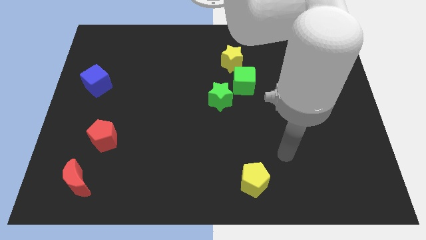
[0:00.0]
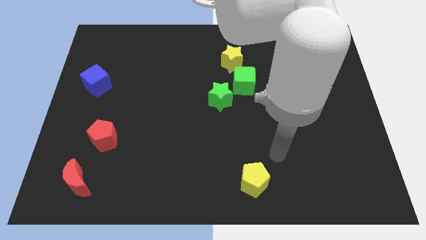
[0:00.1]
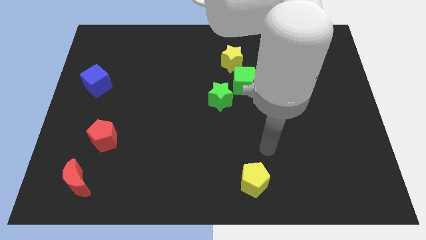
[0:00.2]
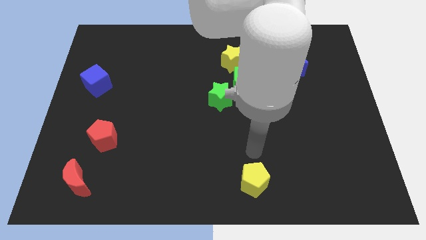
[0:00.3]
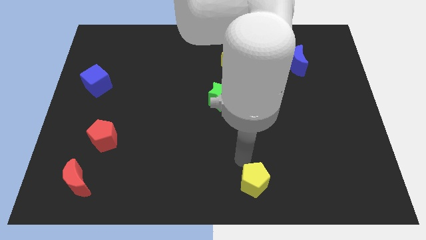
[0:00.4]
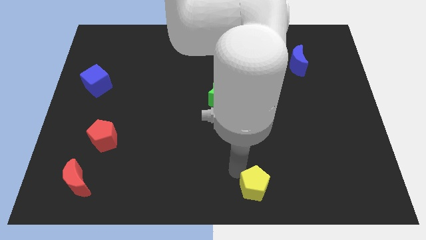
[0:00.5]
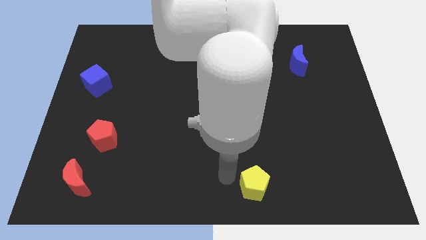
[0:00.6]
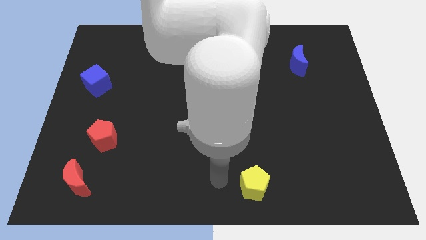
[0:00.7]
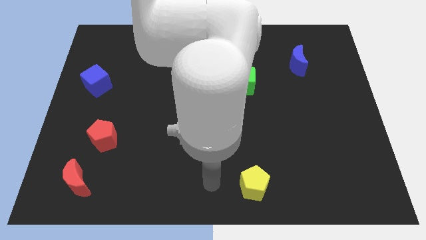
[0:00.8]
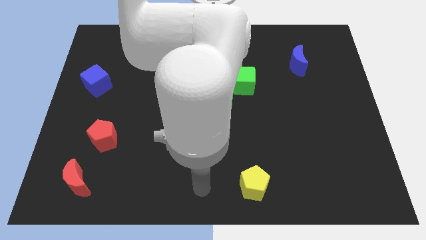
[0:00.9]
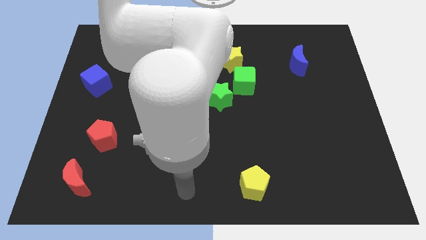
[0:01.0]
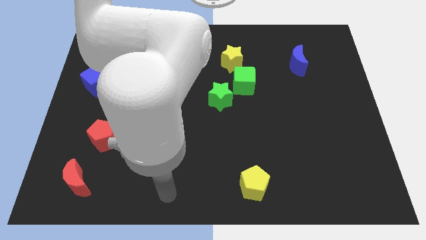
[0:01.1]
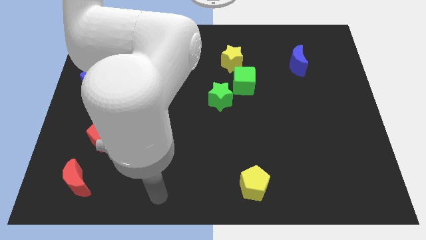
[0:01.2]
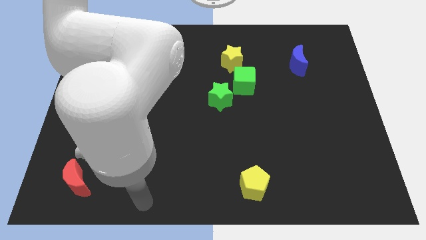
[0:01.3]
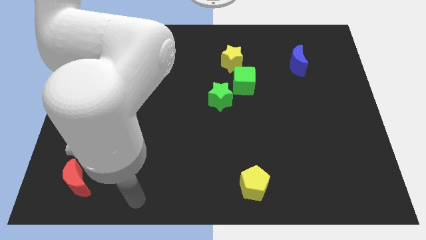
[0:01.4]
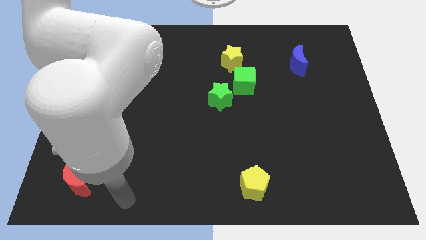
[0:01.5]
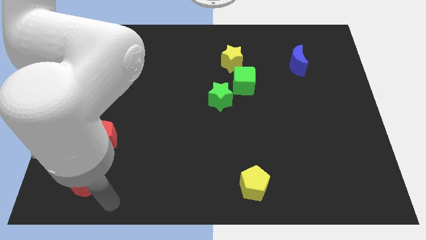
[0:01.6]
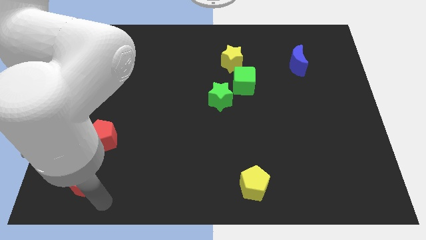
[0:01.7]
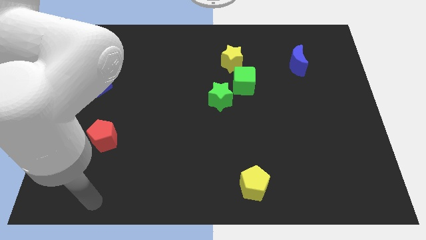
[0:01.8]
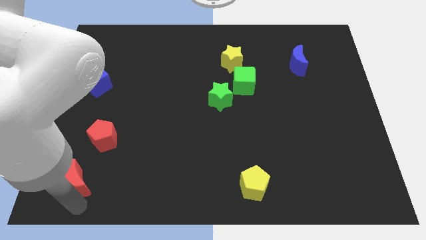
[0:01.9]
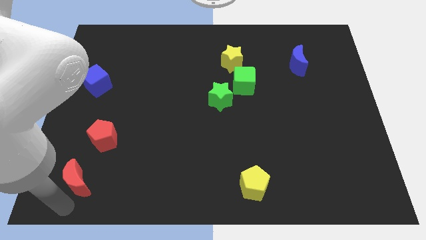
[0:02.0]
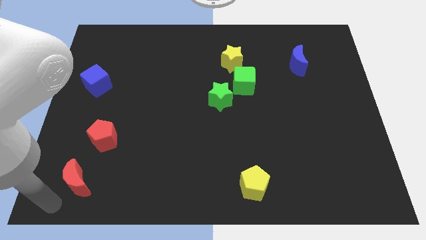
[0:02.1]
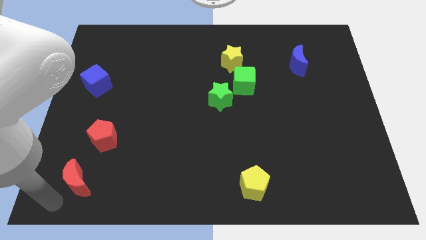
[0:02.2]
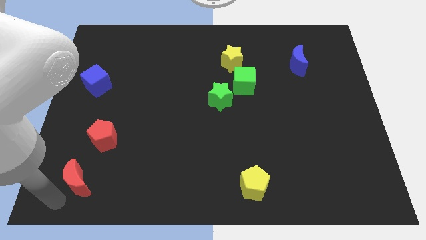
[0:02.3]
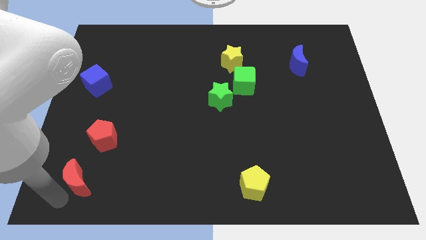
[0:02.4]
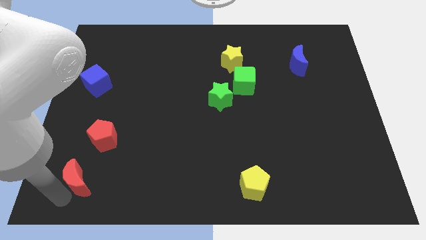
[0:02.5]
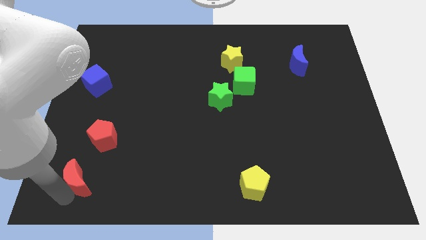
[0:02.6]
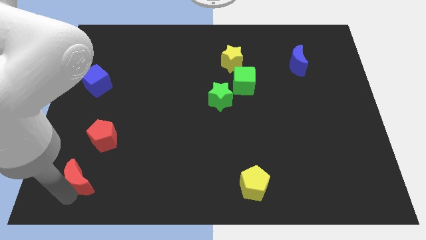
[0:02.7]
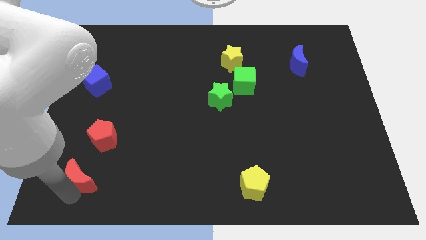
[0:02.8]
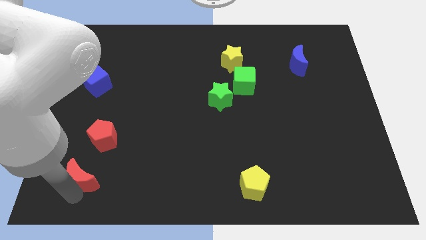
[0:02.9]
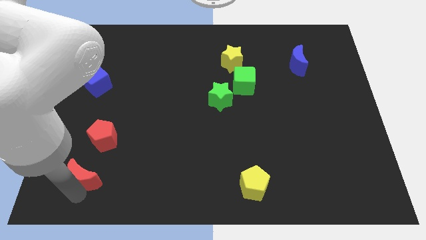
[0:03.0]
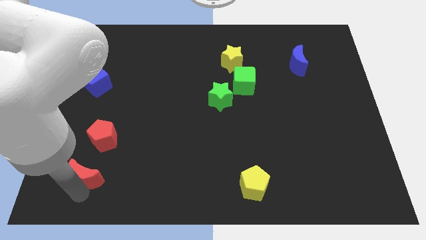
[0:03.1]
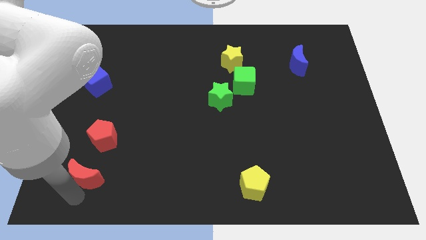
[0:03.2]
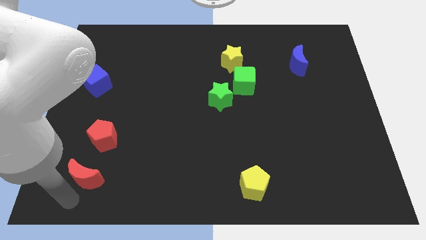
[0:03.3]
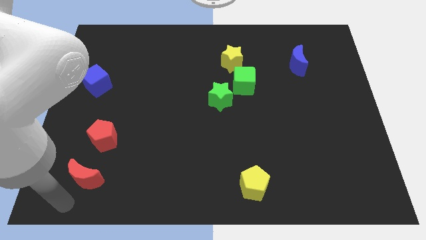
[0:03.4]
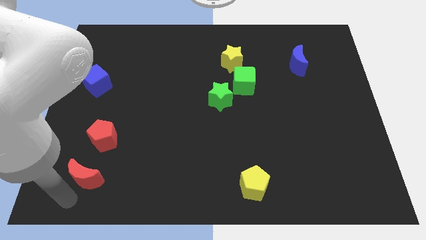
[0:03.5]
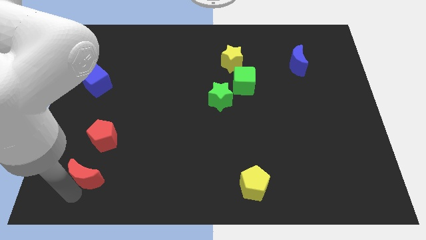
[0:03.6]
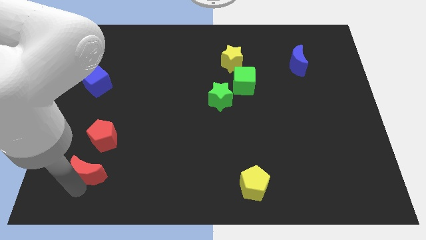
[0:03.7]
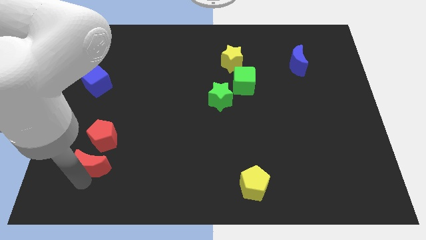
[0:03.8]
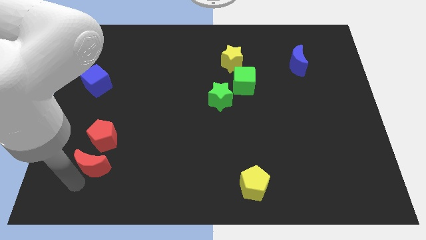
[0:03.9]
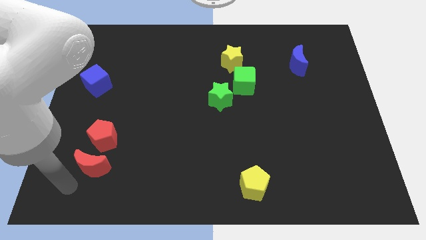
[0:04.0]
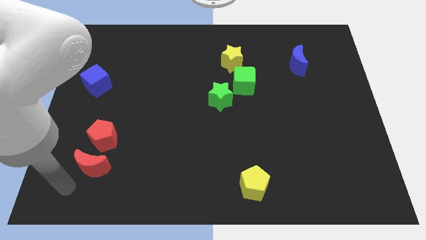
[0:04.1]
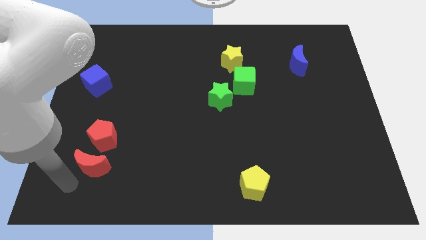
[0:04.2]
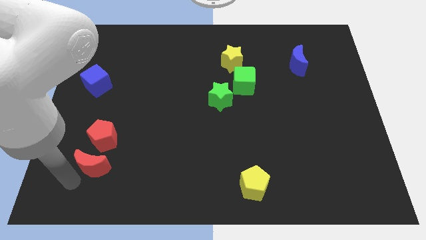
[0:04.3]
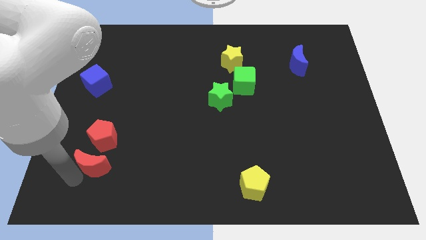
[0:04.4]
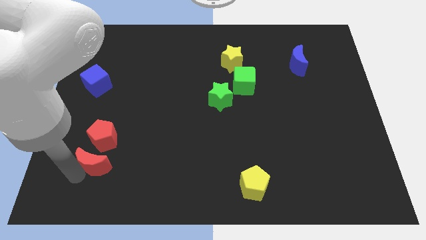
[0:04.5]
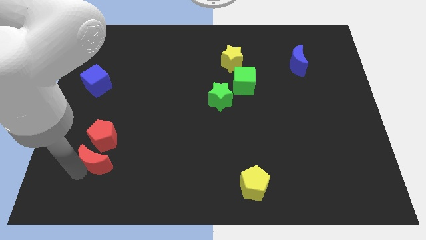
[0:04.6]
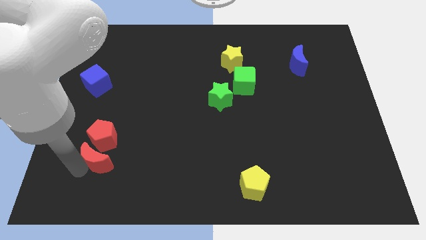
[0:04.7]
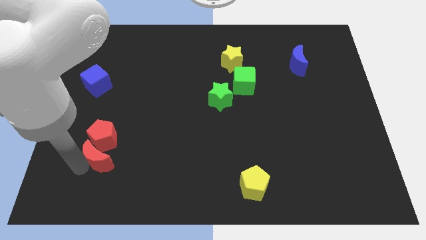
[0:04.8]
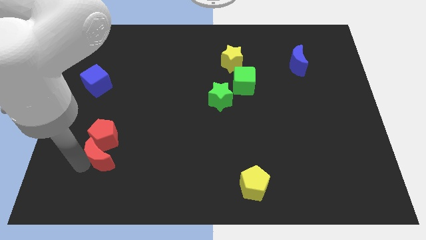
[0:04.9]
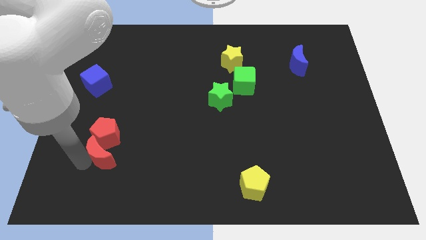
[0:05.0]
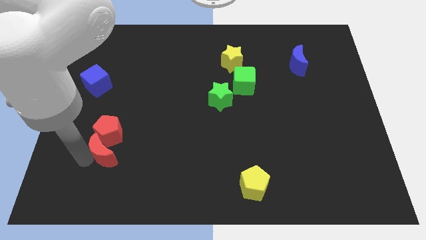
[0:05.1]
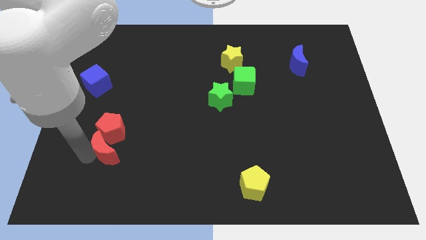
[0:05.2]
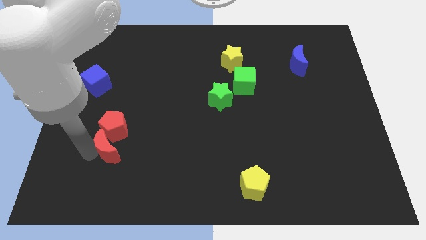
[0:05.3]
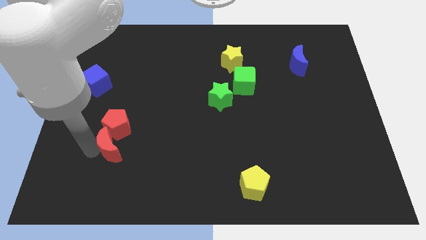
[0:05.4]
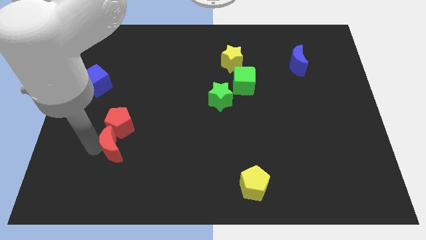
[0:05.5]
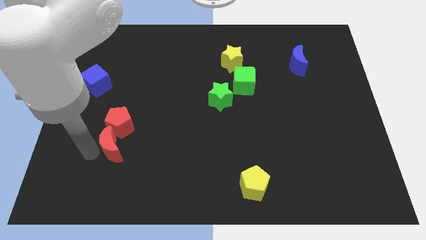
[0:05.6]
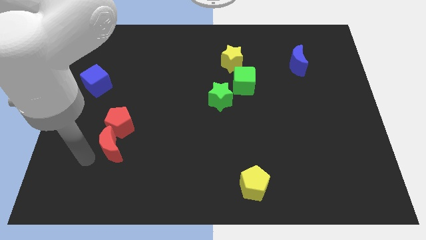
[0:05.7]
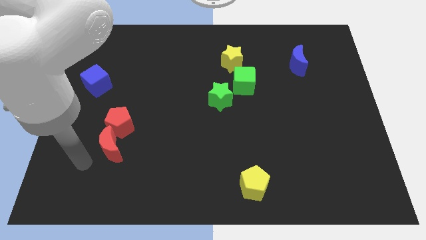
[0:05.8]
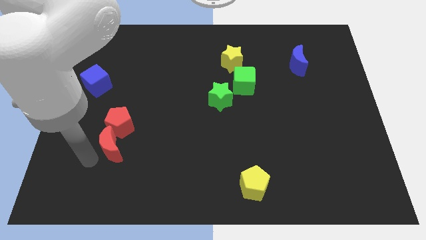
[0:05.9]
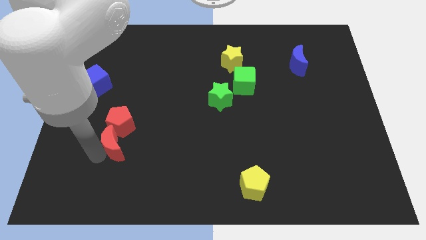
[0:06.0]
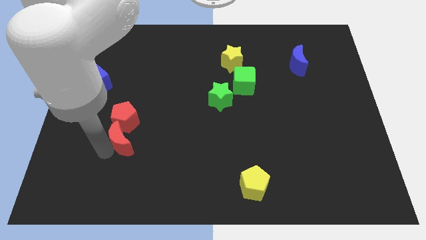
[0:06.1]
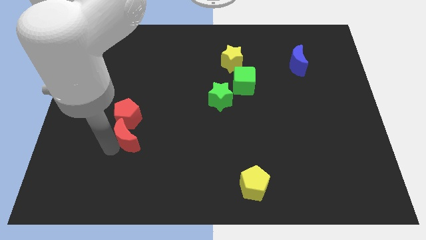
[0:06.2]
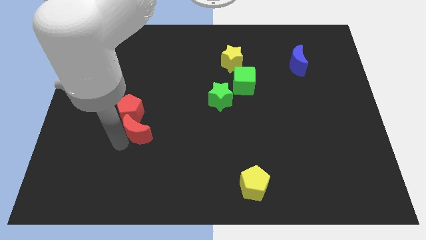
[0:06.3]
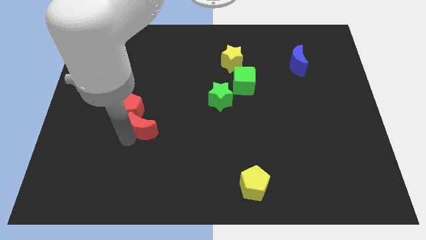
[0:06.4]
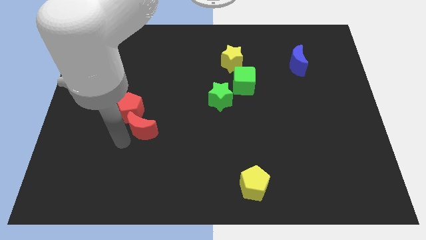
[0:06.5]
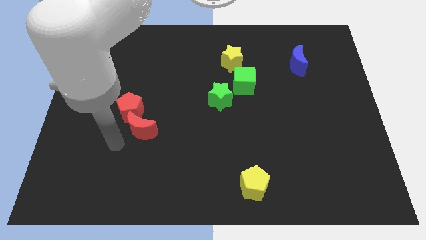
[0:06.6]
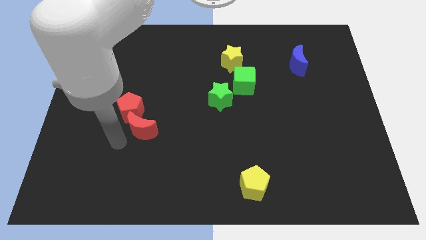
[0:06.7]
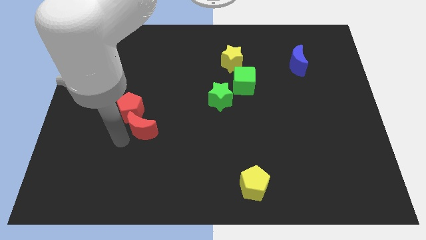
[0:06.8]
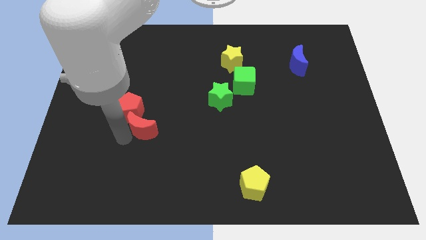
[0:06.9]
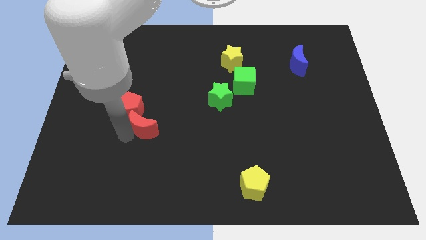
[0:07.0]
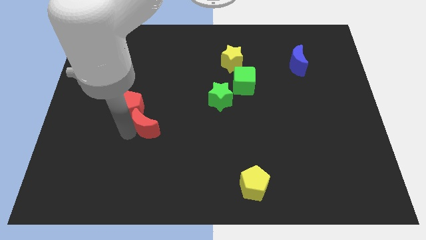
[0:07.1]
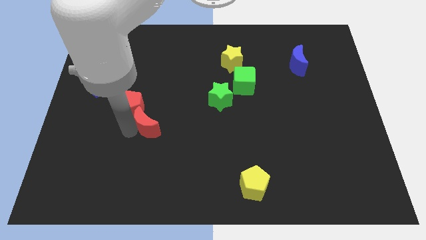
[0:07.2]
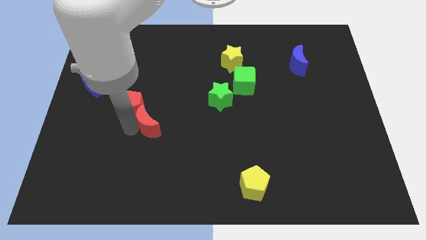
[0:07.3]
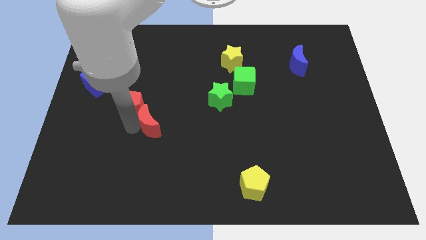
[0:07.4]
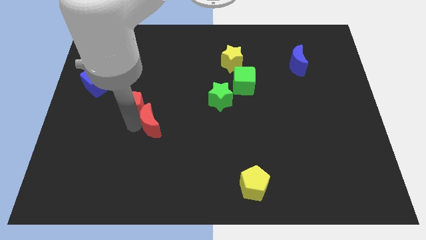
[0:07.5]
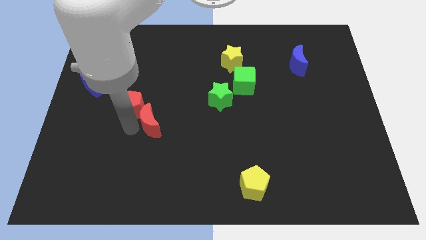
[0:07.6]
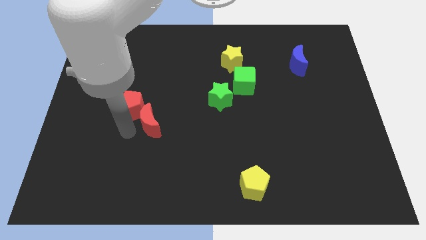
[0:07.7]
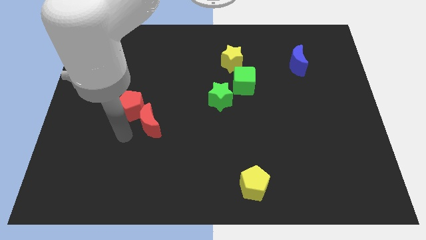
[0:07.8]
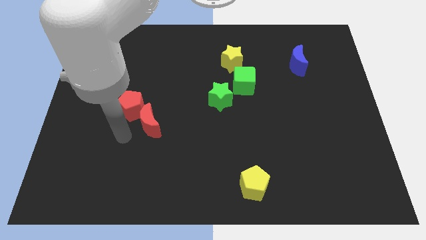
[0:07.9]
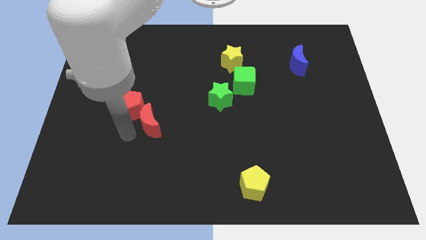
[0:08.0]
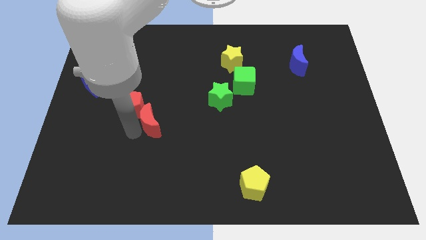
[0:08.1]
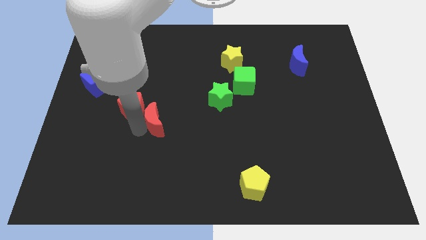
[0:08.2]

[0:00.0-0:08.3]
move the red moon up and to the right
